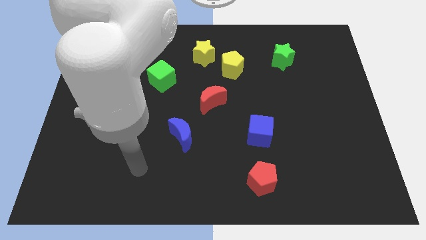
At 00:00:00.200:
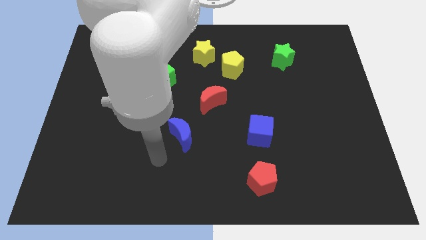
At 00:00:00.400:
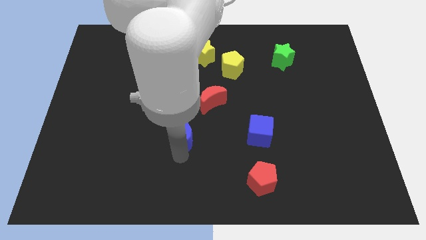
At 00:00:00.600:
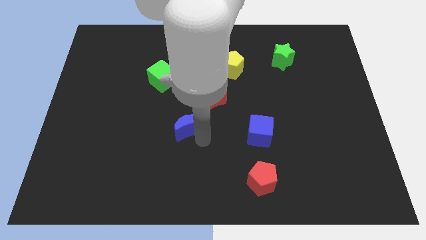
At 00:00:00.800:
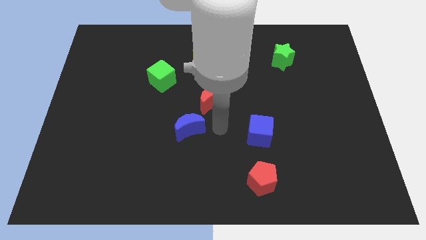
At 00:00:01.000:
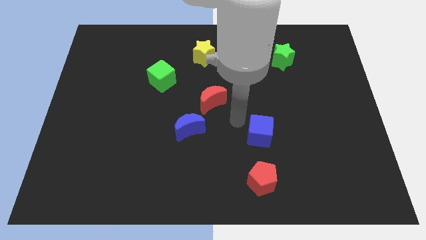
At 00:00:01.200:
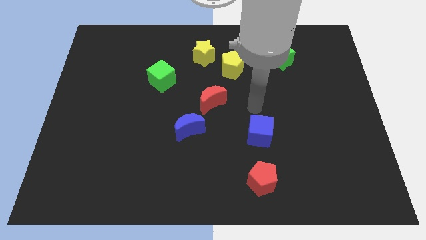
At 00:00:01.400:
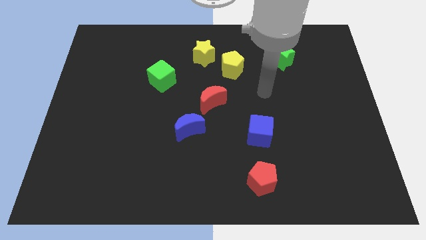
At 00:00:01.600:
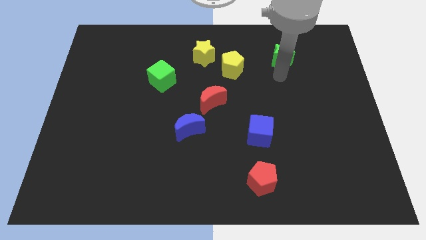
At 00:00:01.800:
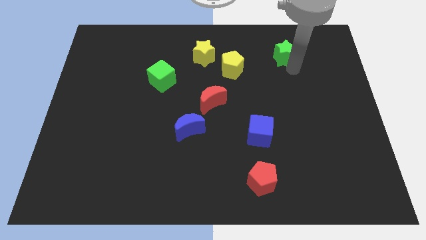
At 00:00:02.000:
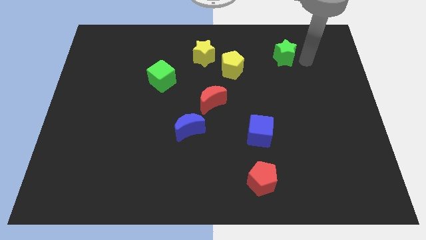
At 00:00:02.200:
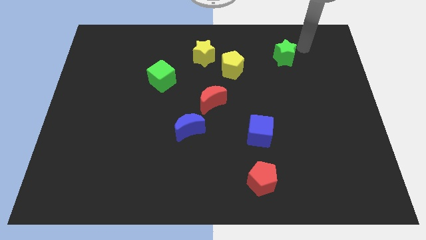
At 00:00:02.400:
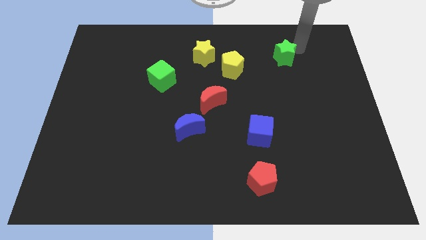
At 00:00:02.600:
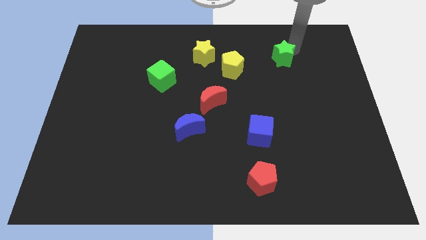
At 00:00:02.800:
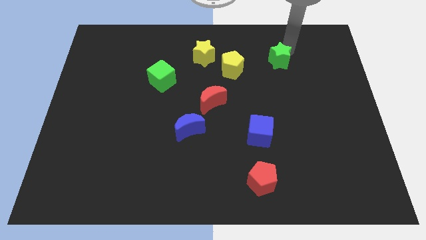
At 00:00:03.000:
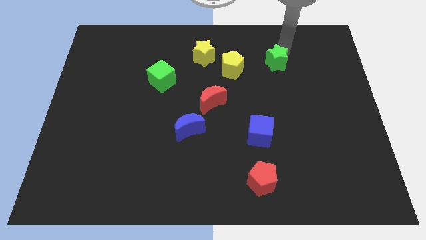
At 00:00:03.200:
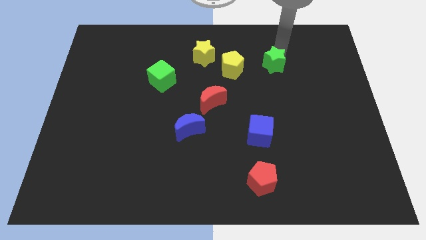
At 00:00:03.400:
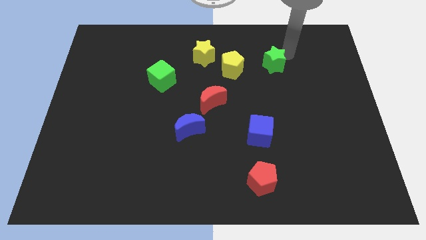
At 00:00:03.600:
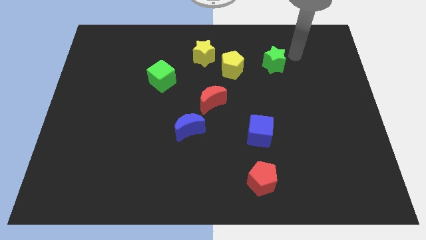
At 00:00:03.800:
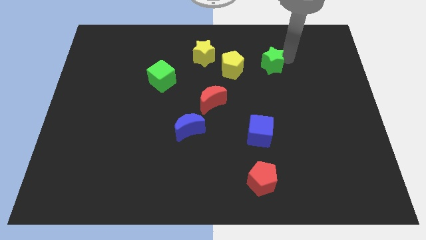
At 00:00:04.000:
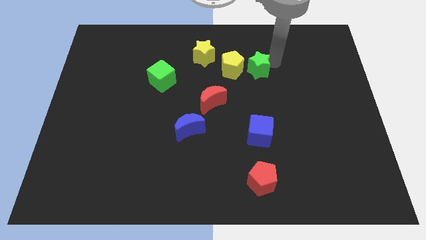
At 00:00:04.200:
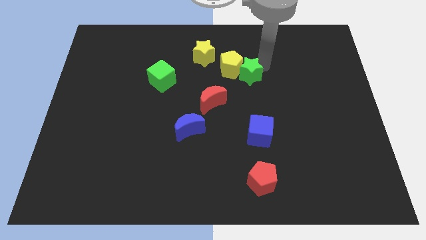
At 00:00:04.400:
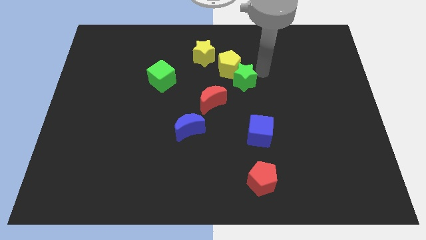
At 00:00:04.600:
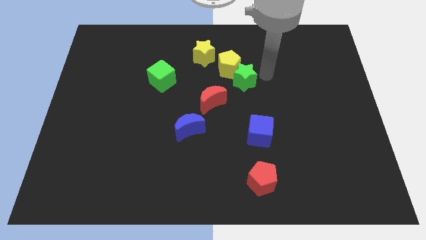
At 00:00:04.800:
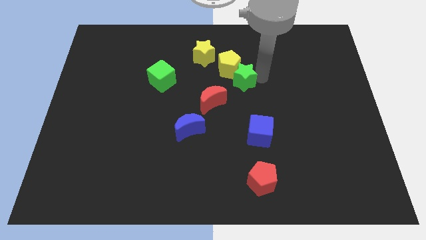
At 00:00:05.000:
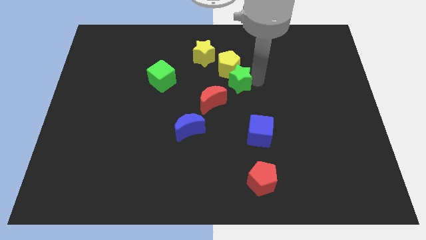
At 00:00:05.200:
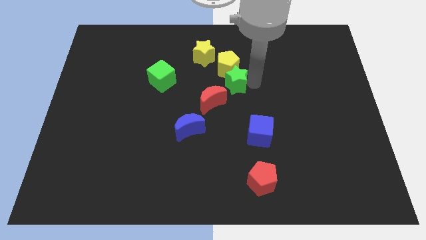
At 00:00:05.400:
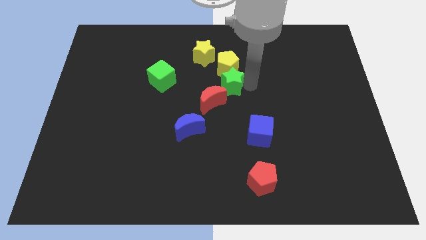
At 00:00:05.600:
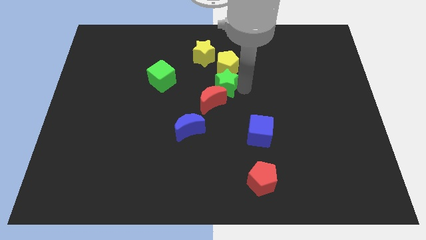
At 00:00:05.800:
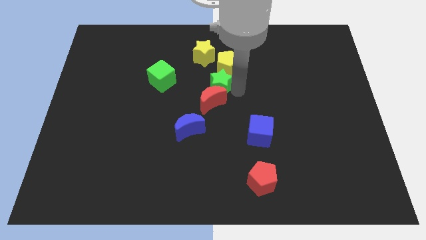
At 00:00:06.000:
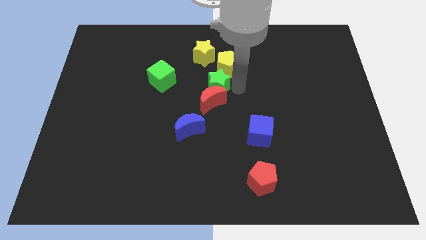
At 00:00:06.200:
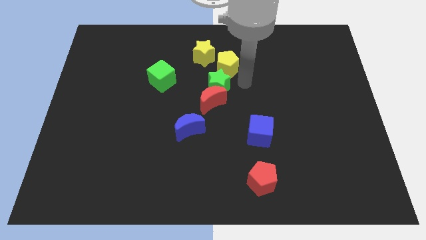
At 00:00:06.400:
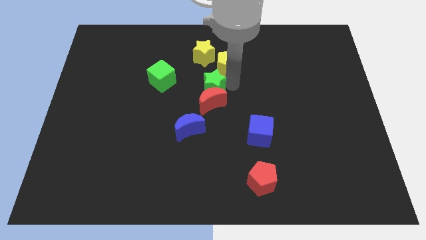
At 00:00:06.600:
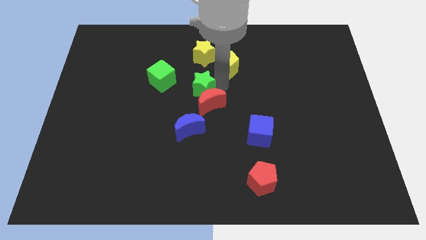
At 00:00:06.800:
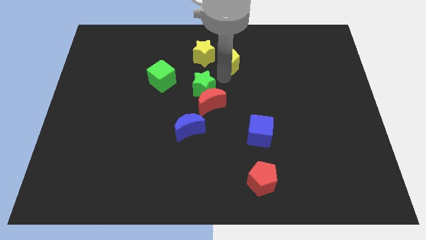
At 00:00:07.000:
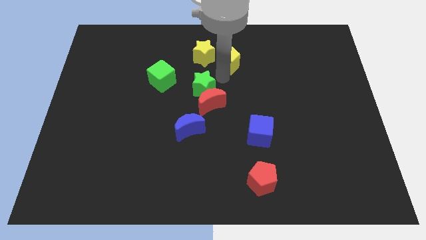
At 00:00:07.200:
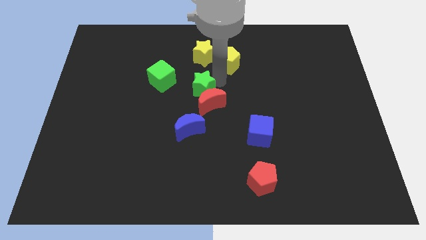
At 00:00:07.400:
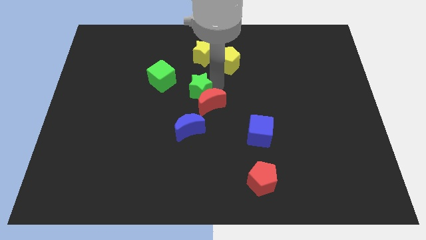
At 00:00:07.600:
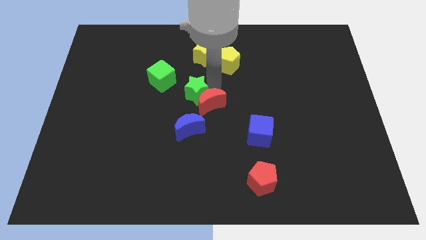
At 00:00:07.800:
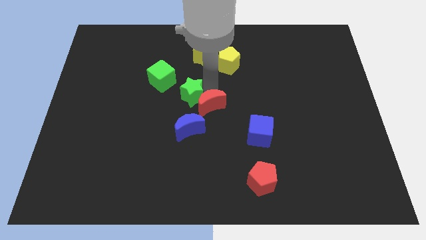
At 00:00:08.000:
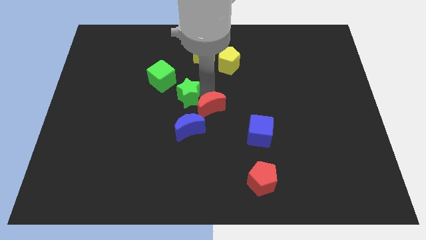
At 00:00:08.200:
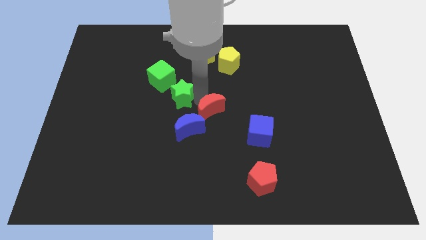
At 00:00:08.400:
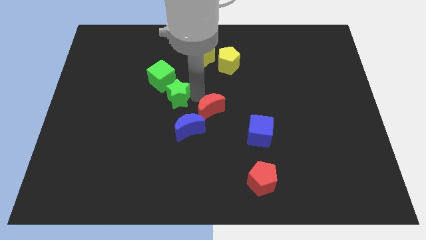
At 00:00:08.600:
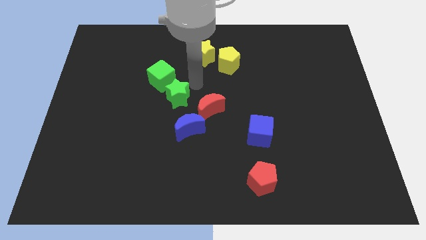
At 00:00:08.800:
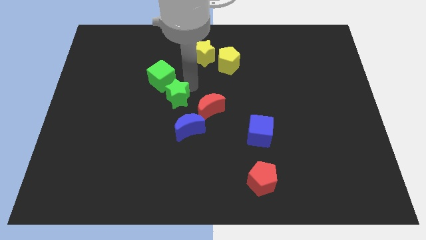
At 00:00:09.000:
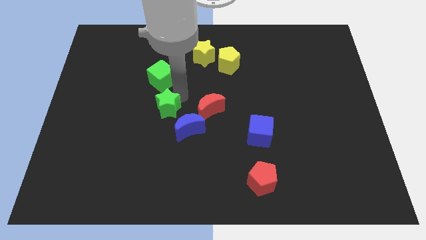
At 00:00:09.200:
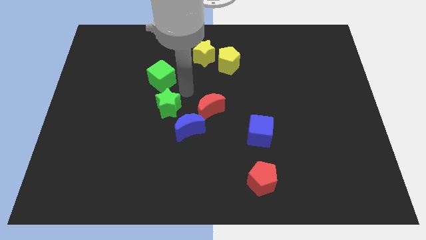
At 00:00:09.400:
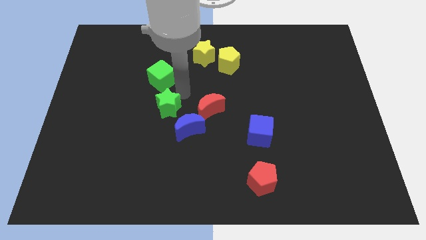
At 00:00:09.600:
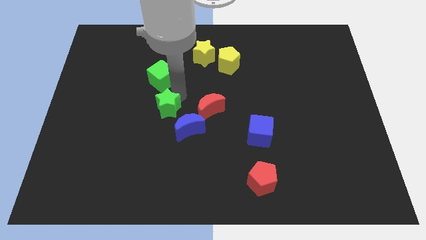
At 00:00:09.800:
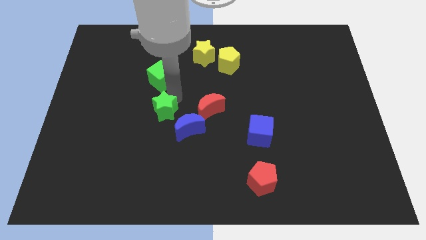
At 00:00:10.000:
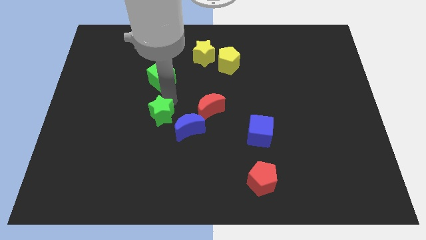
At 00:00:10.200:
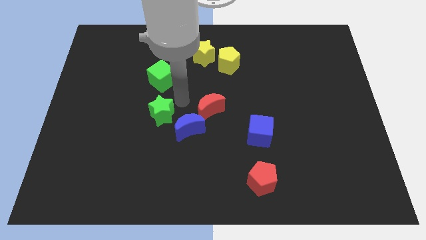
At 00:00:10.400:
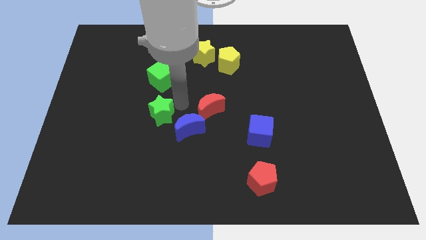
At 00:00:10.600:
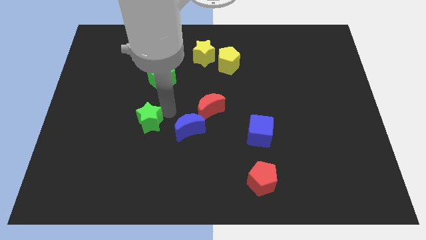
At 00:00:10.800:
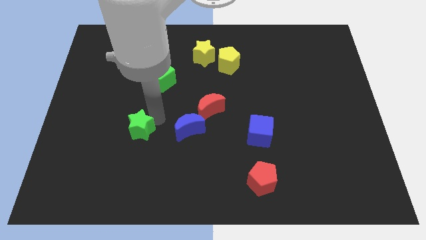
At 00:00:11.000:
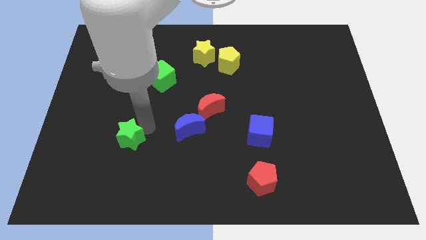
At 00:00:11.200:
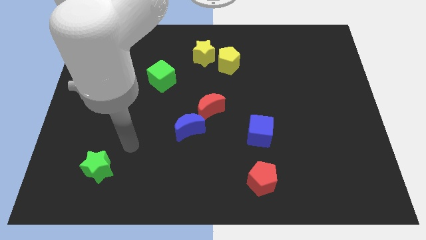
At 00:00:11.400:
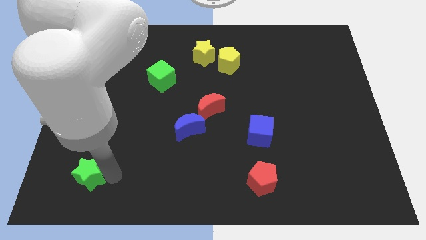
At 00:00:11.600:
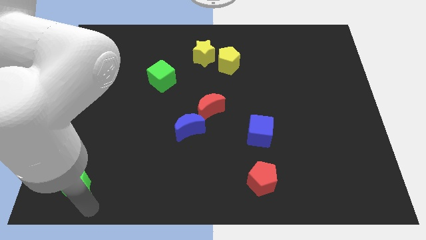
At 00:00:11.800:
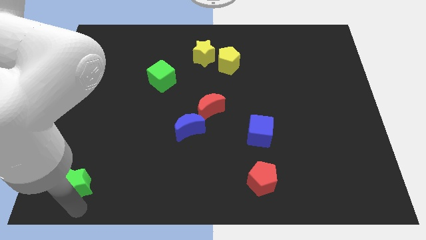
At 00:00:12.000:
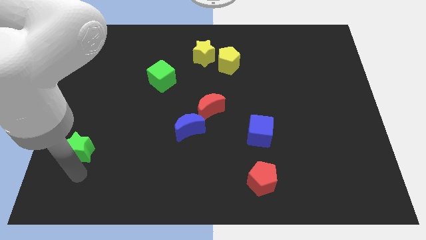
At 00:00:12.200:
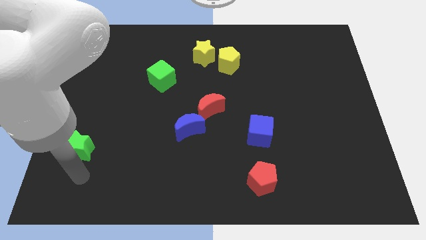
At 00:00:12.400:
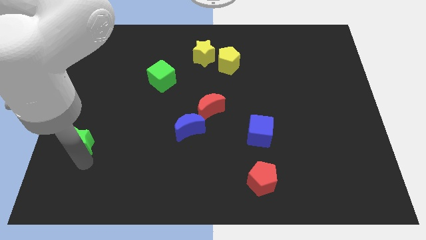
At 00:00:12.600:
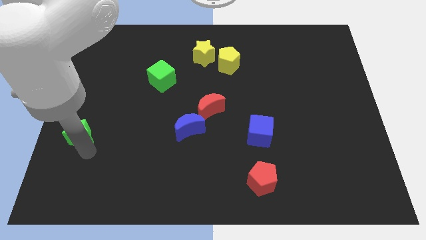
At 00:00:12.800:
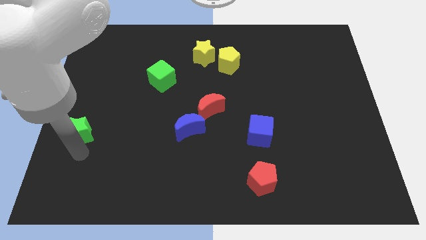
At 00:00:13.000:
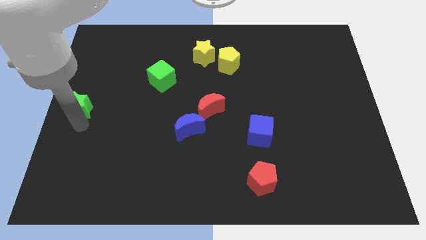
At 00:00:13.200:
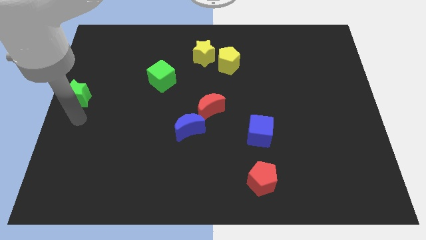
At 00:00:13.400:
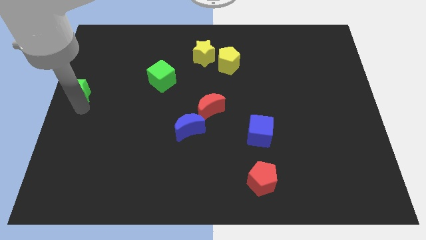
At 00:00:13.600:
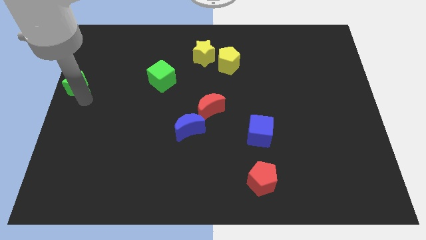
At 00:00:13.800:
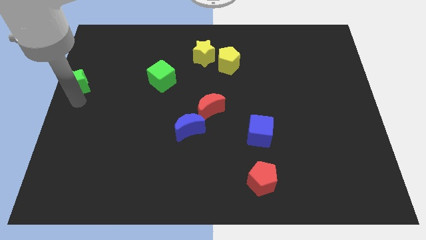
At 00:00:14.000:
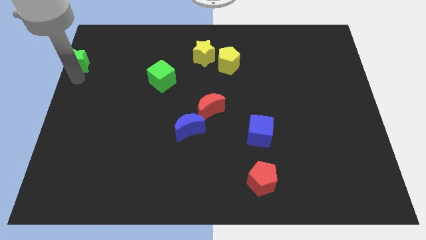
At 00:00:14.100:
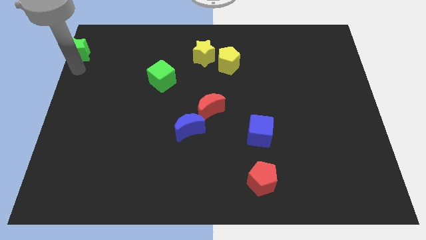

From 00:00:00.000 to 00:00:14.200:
slide the green star to the upper left corner
